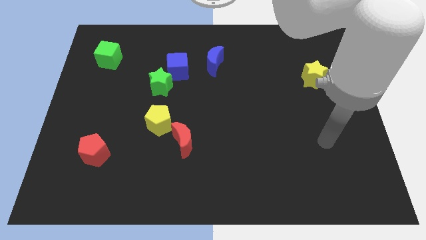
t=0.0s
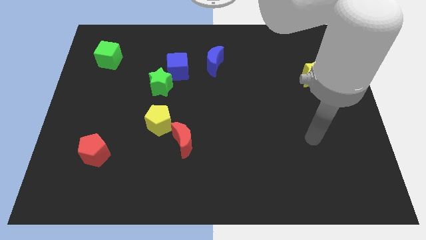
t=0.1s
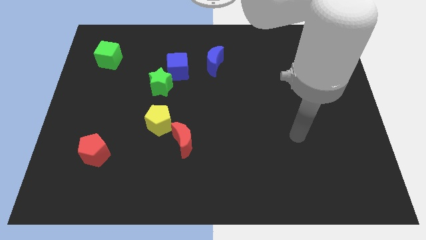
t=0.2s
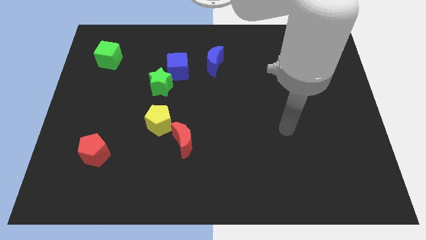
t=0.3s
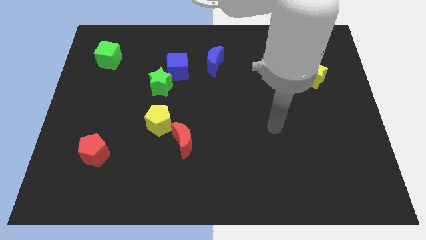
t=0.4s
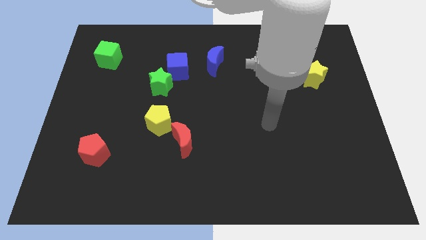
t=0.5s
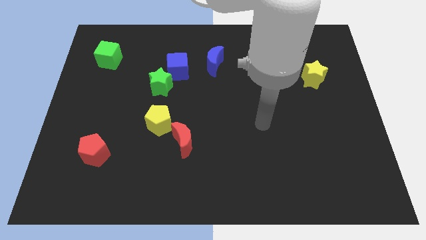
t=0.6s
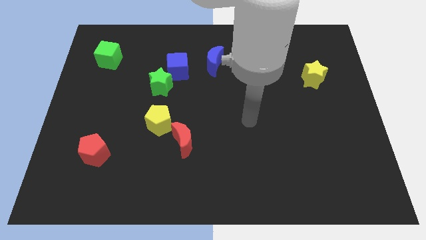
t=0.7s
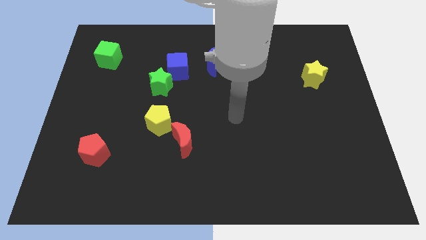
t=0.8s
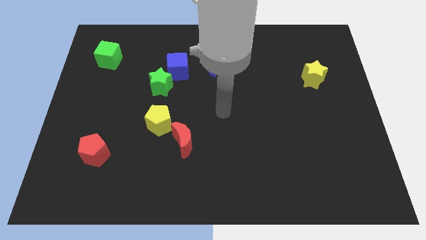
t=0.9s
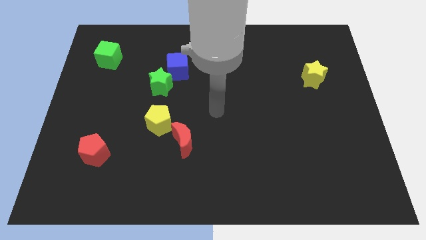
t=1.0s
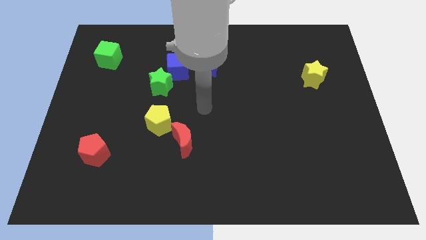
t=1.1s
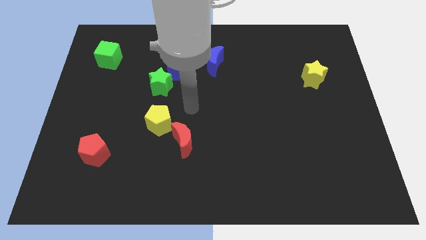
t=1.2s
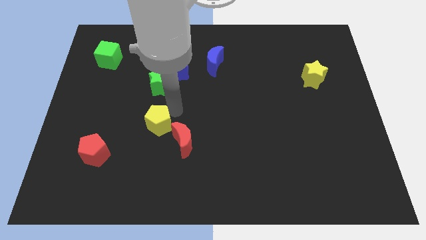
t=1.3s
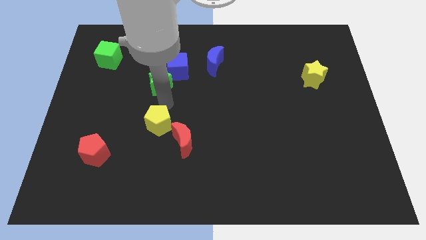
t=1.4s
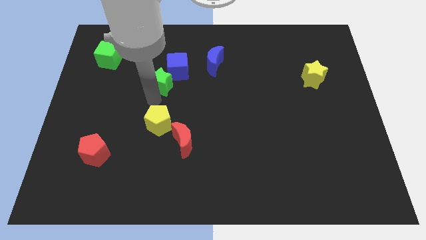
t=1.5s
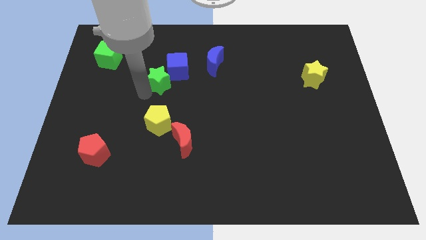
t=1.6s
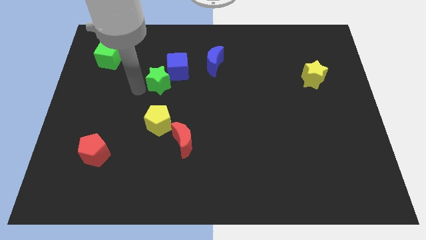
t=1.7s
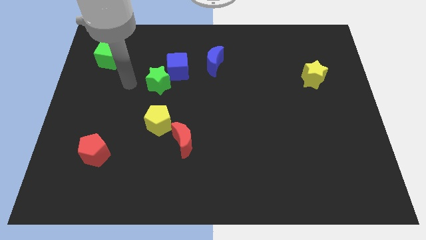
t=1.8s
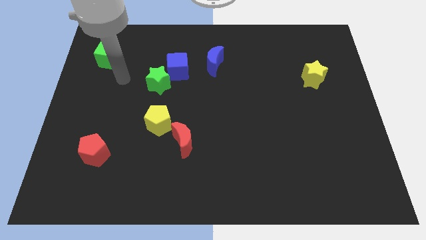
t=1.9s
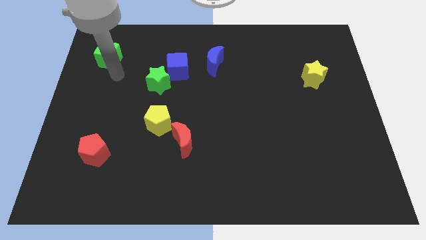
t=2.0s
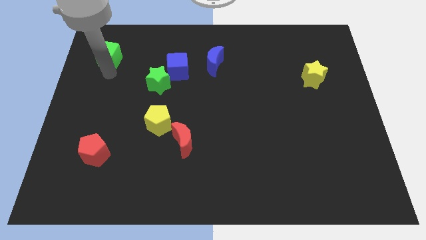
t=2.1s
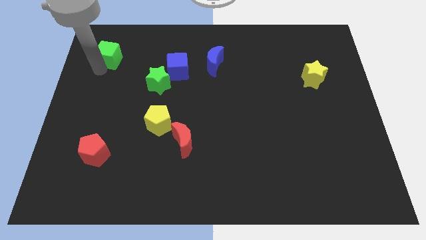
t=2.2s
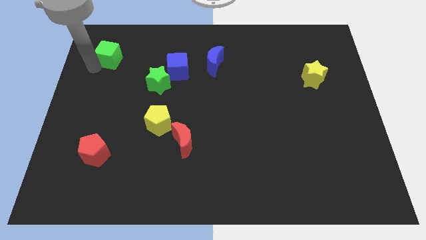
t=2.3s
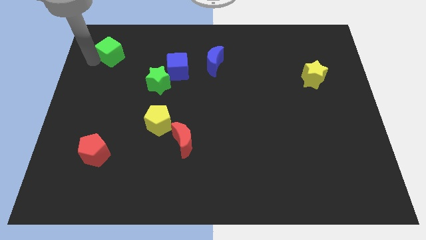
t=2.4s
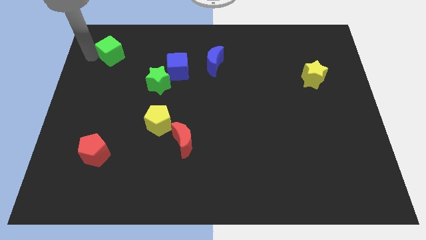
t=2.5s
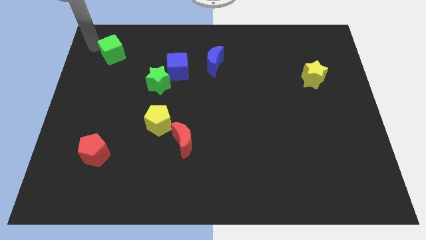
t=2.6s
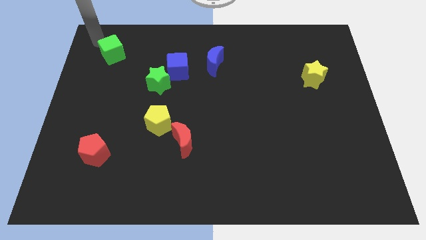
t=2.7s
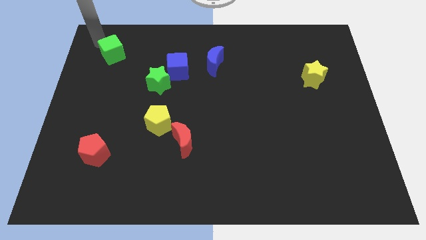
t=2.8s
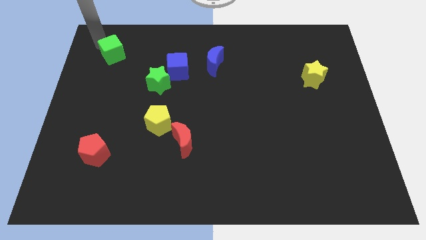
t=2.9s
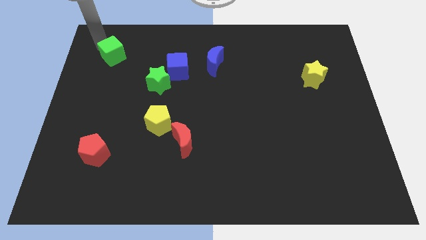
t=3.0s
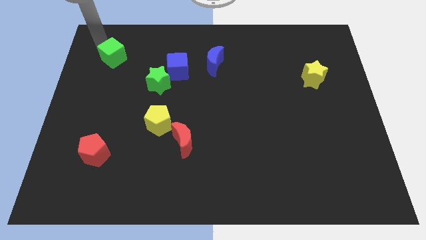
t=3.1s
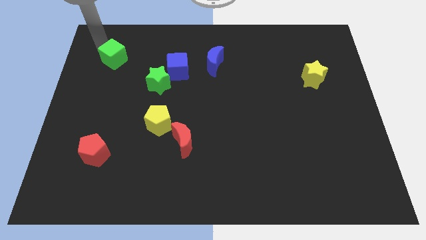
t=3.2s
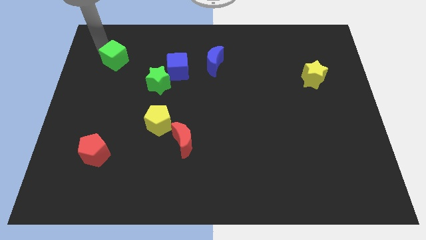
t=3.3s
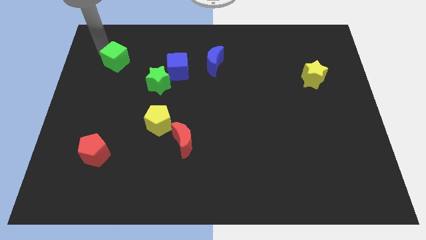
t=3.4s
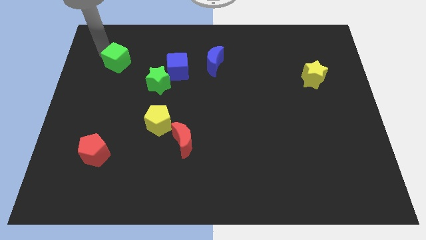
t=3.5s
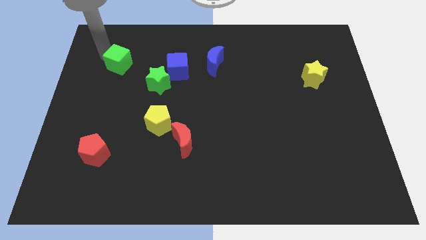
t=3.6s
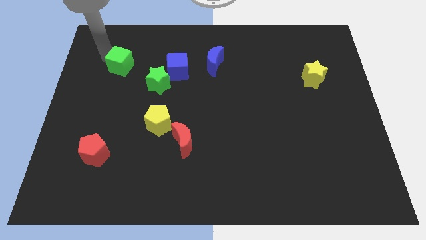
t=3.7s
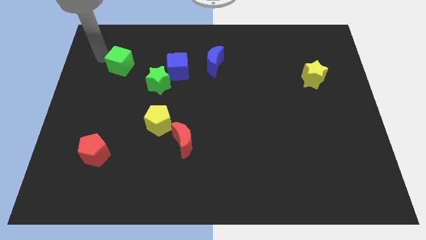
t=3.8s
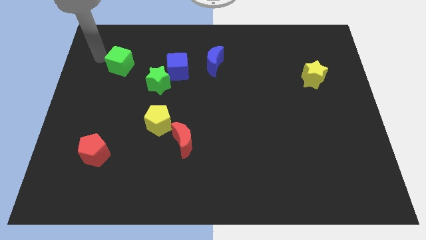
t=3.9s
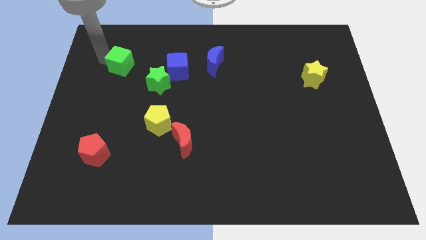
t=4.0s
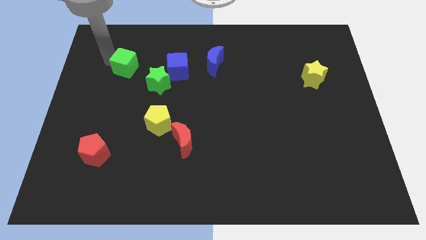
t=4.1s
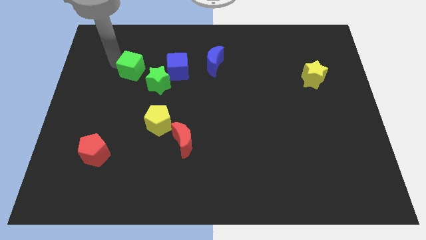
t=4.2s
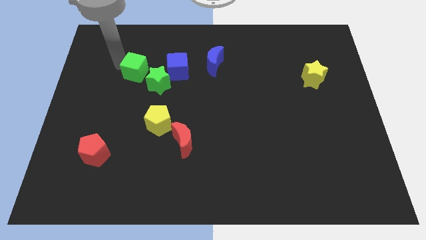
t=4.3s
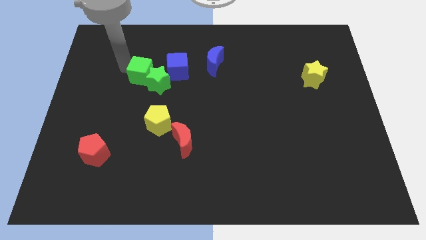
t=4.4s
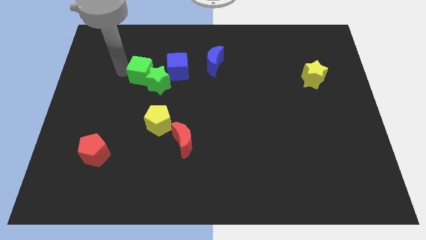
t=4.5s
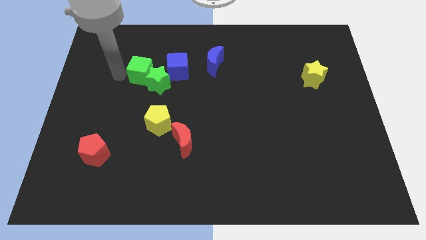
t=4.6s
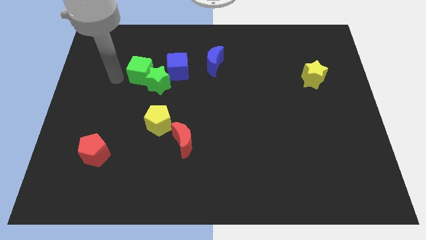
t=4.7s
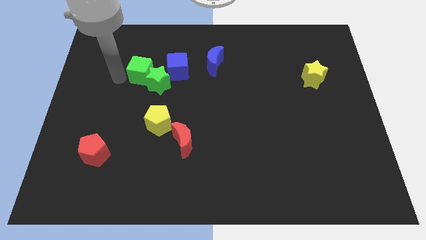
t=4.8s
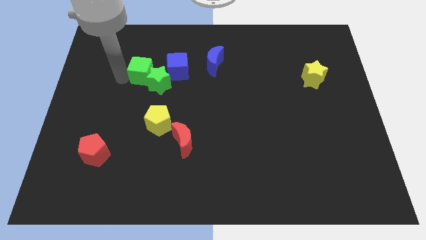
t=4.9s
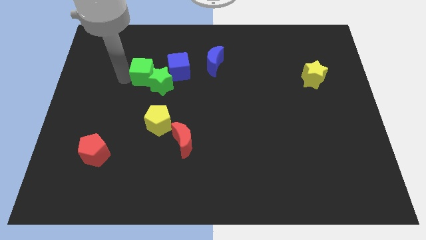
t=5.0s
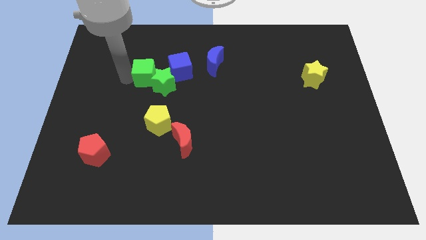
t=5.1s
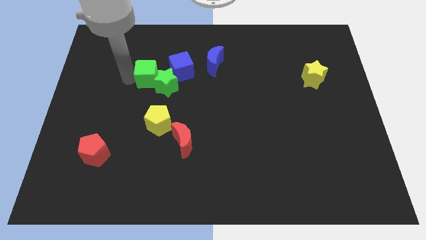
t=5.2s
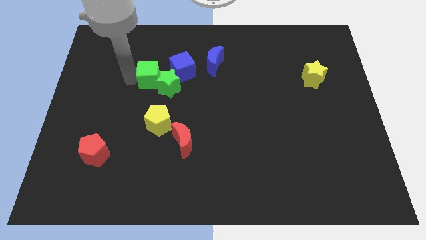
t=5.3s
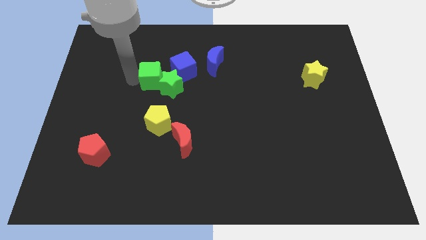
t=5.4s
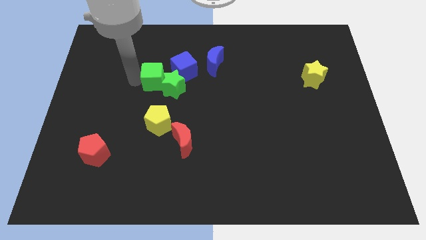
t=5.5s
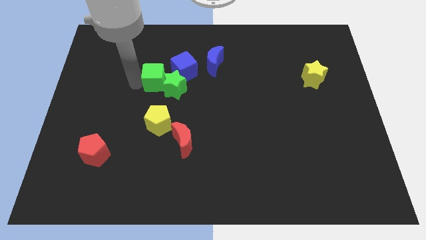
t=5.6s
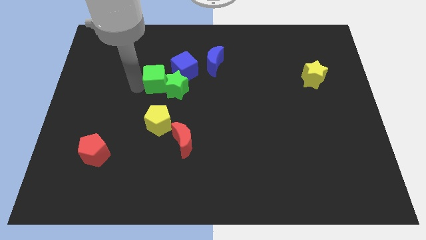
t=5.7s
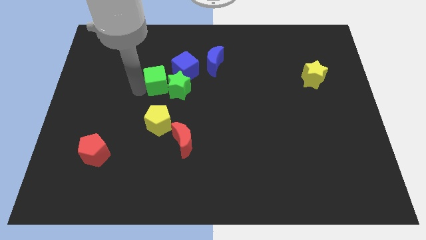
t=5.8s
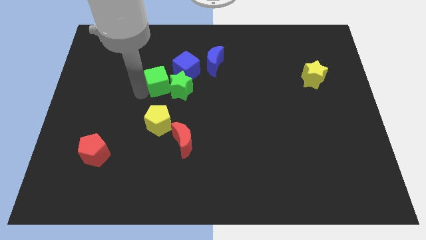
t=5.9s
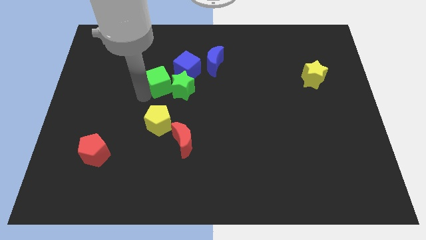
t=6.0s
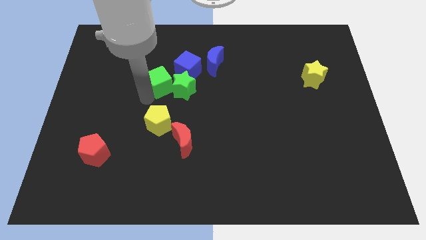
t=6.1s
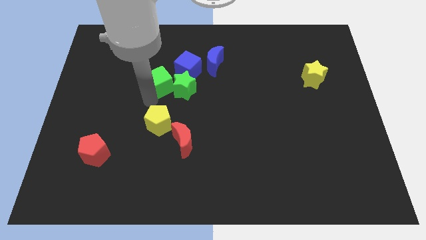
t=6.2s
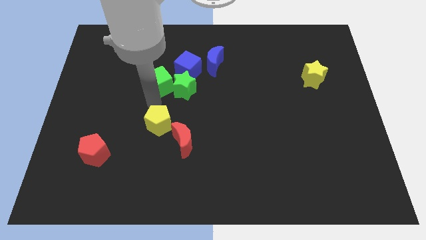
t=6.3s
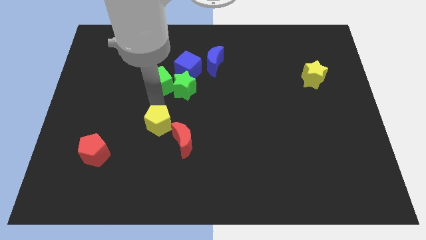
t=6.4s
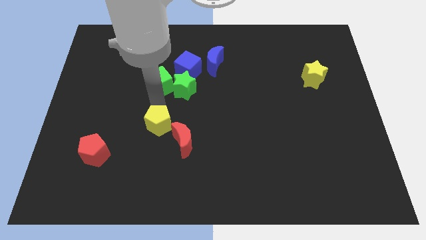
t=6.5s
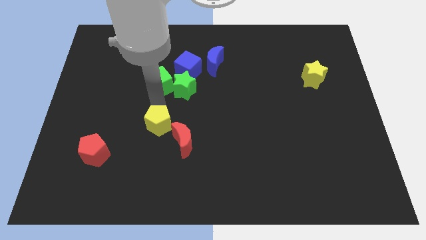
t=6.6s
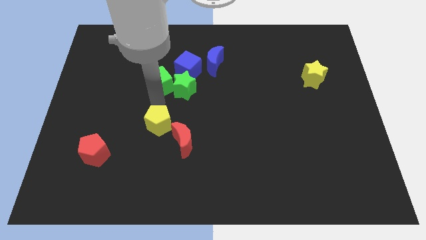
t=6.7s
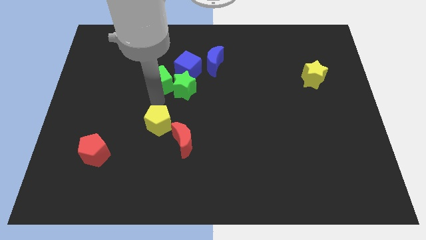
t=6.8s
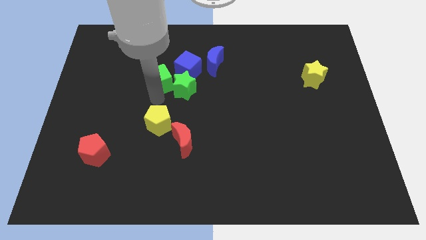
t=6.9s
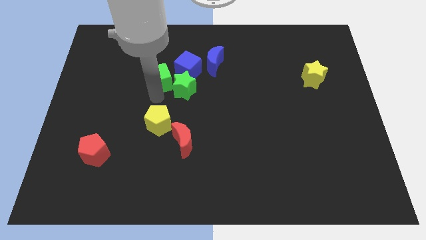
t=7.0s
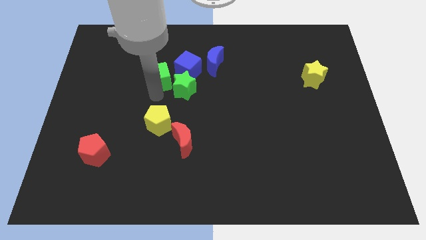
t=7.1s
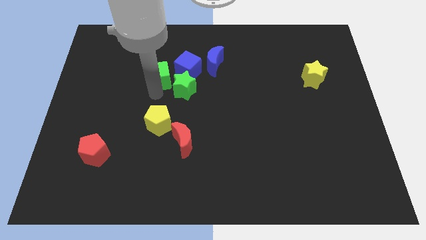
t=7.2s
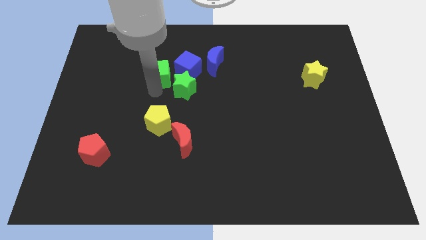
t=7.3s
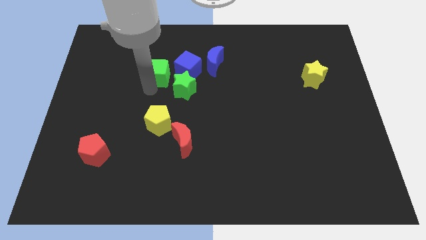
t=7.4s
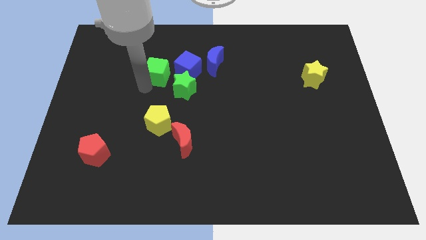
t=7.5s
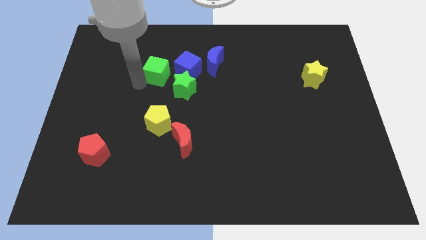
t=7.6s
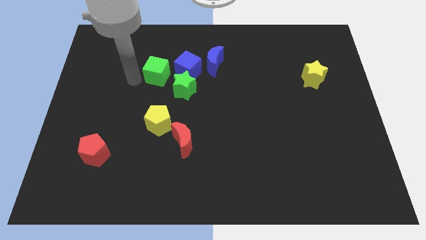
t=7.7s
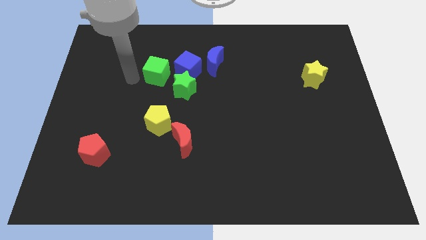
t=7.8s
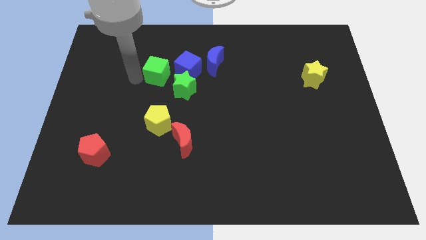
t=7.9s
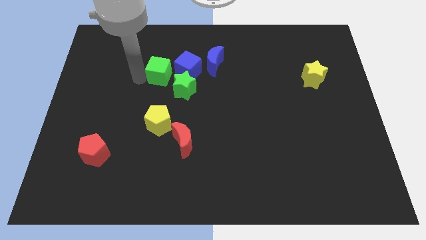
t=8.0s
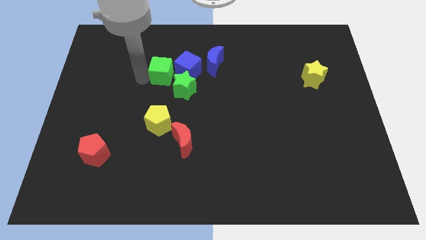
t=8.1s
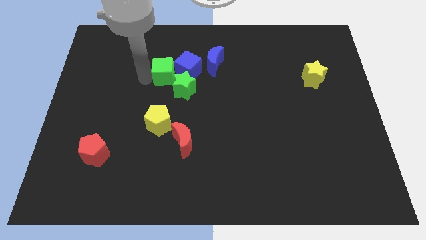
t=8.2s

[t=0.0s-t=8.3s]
push the green cube towards the blue cube
